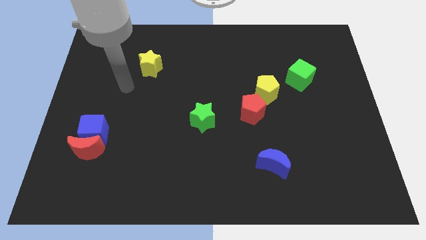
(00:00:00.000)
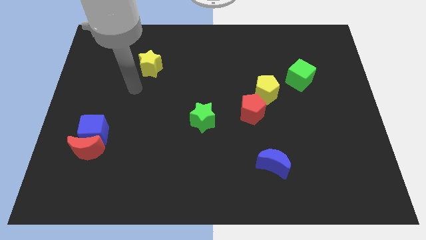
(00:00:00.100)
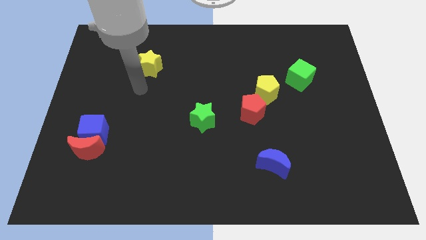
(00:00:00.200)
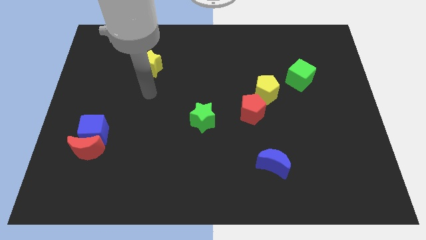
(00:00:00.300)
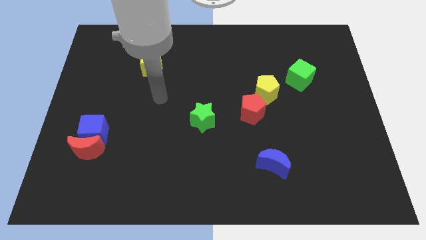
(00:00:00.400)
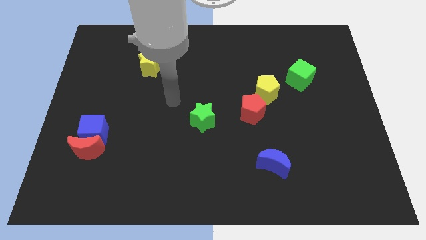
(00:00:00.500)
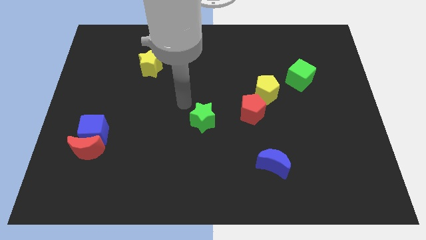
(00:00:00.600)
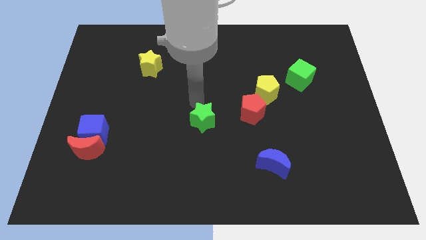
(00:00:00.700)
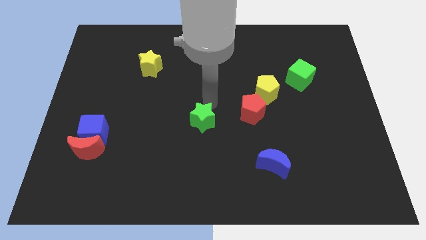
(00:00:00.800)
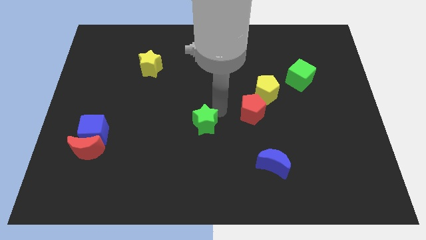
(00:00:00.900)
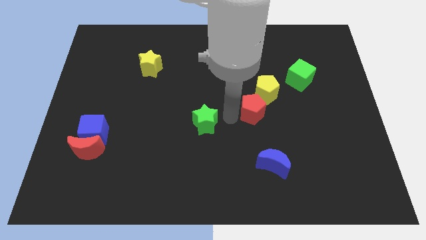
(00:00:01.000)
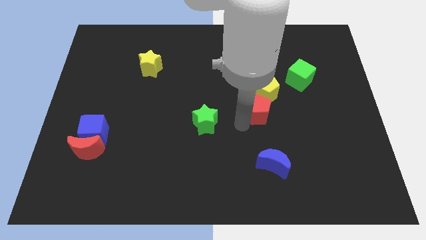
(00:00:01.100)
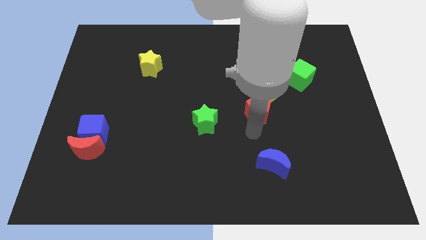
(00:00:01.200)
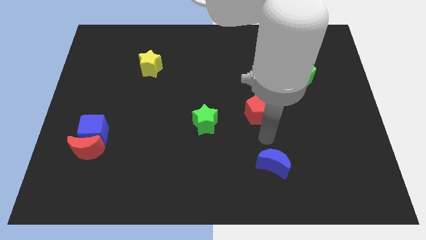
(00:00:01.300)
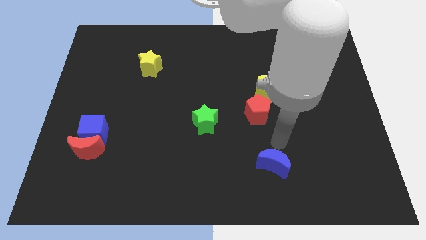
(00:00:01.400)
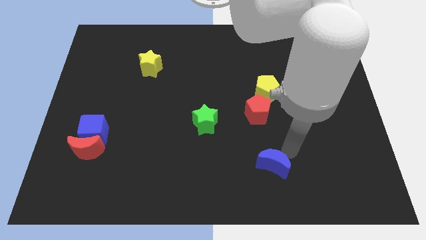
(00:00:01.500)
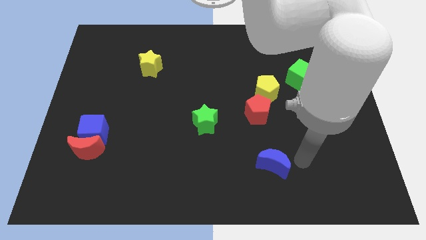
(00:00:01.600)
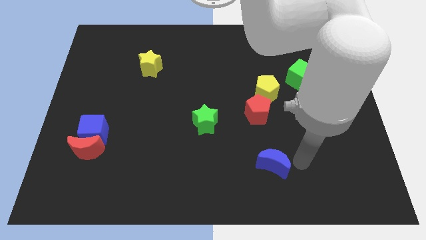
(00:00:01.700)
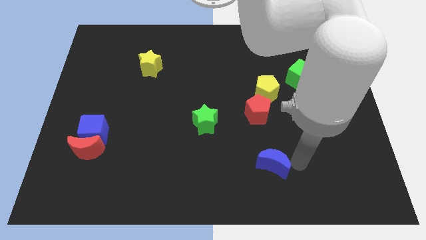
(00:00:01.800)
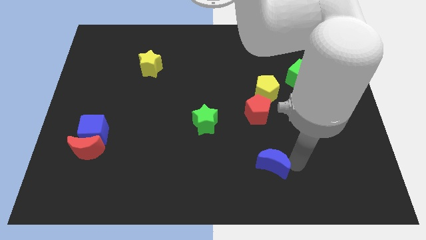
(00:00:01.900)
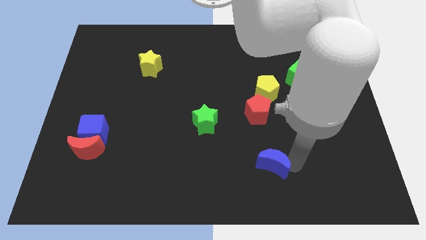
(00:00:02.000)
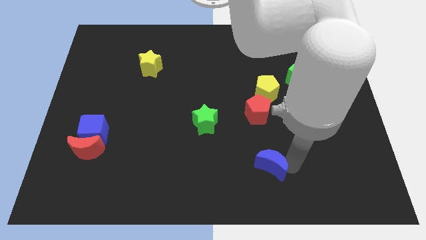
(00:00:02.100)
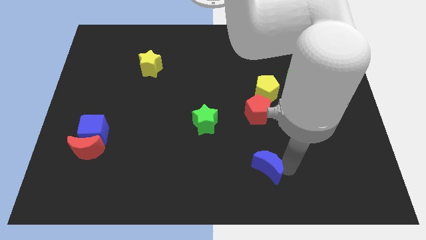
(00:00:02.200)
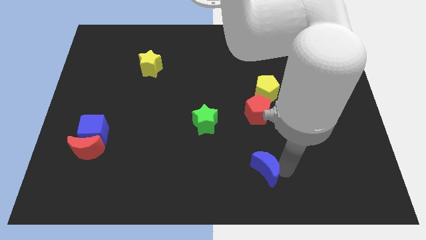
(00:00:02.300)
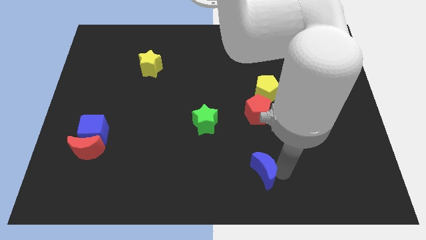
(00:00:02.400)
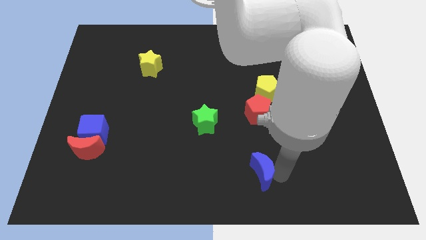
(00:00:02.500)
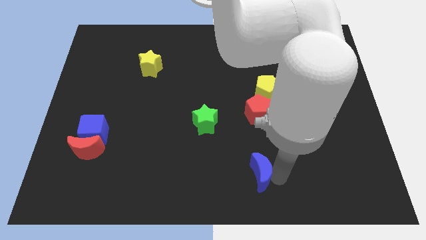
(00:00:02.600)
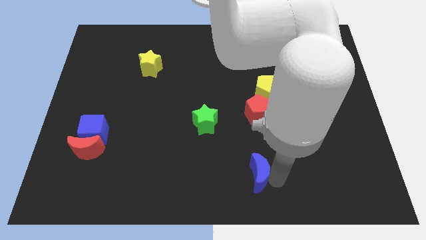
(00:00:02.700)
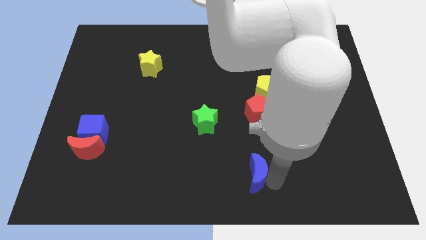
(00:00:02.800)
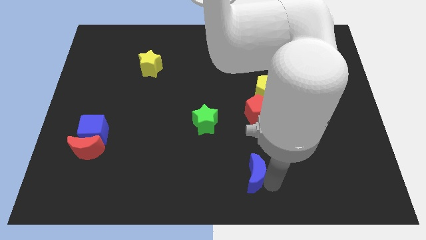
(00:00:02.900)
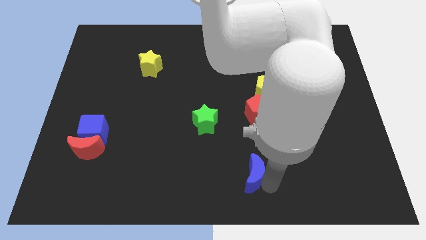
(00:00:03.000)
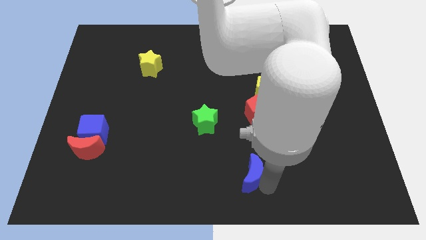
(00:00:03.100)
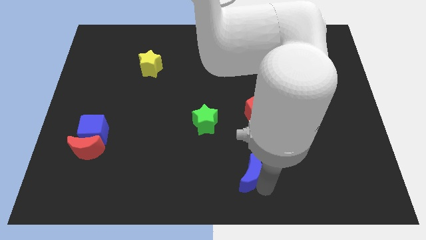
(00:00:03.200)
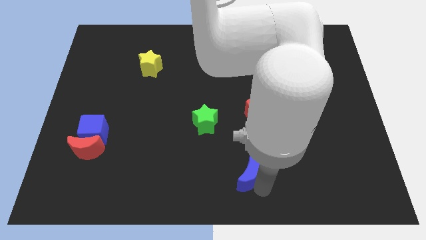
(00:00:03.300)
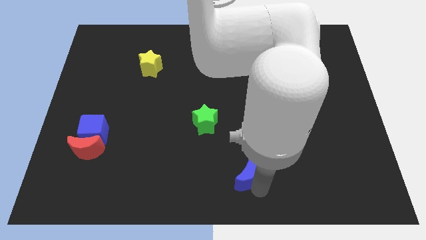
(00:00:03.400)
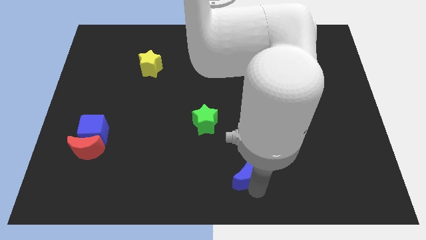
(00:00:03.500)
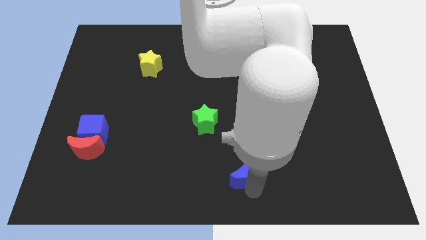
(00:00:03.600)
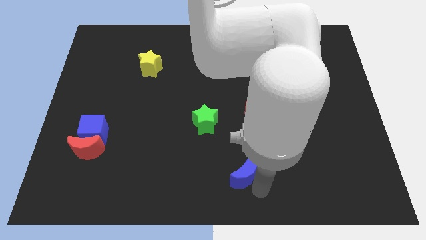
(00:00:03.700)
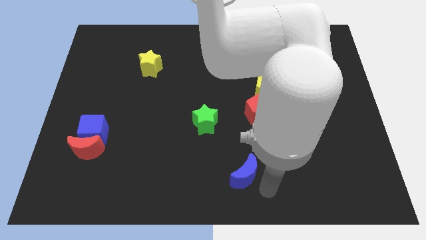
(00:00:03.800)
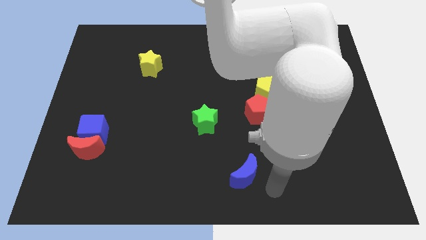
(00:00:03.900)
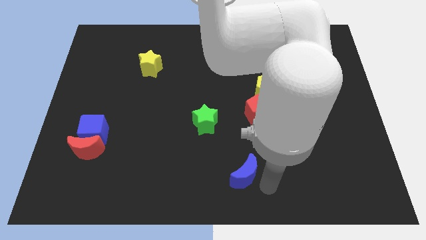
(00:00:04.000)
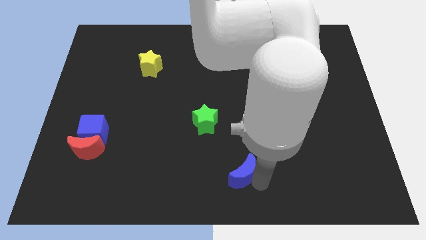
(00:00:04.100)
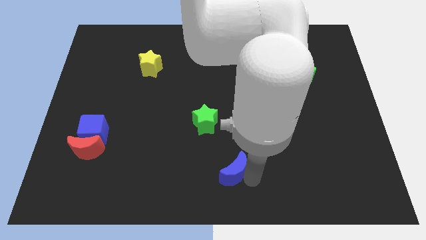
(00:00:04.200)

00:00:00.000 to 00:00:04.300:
slide the blue moon to the left a little bit

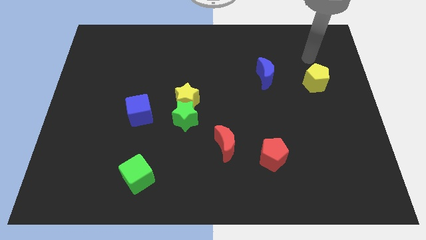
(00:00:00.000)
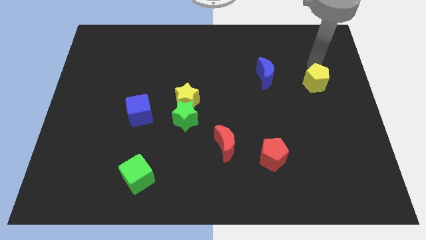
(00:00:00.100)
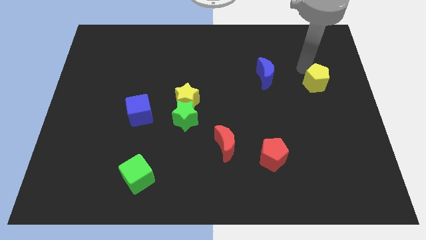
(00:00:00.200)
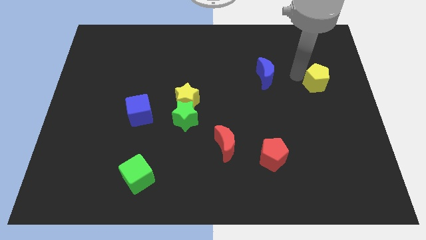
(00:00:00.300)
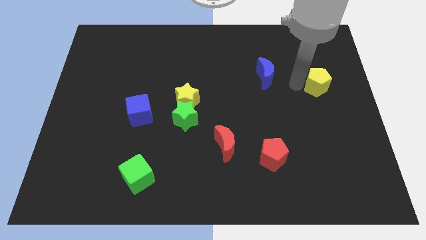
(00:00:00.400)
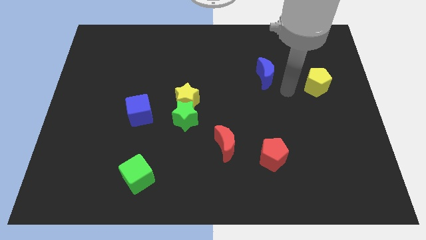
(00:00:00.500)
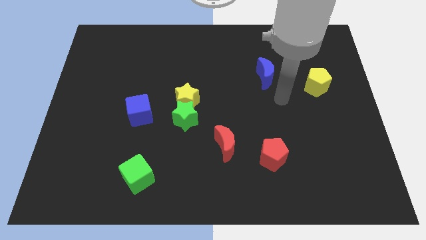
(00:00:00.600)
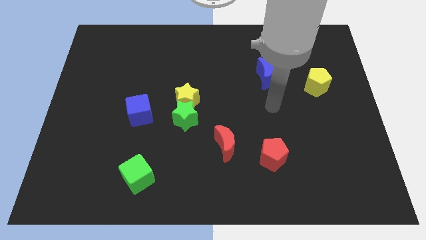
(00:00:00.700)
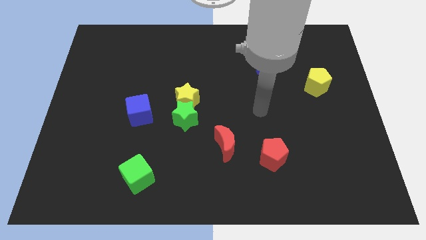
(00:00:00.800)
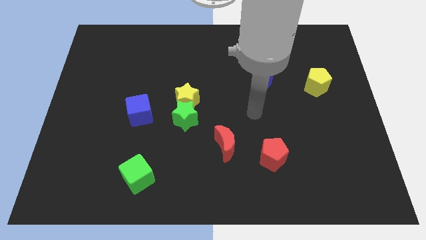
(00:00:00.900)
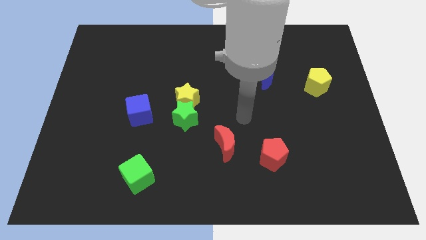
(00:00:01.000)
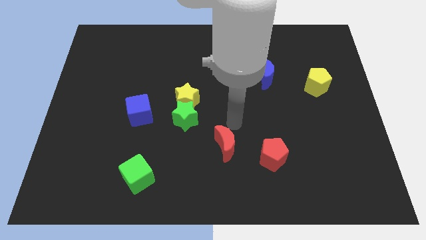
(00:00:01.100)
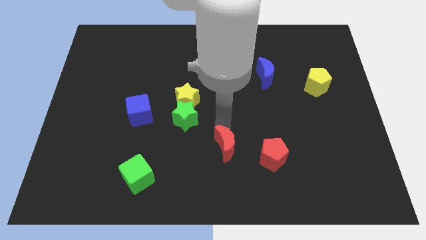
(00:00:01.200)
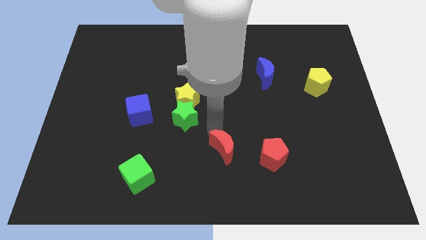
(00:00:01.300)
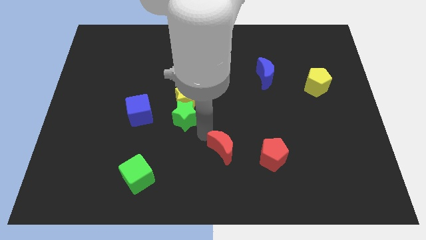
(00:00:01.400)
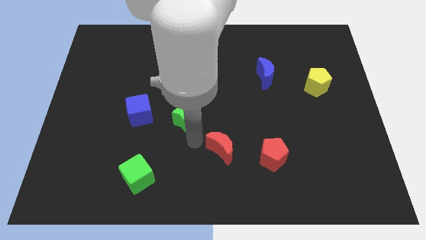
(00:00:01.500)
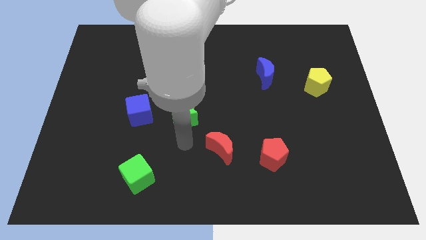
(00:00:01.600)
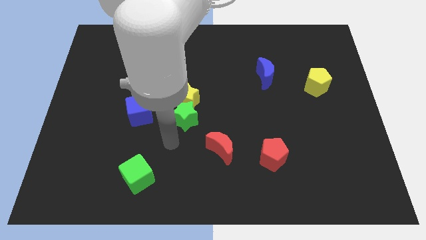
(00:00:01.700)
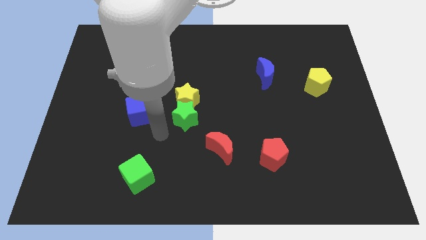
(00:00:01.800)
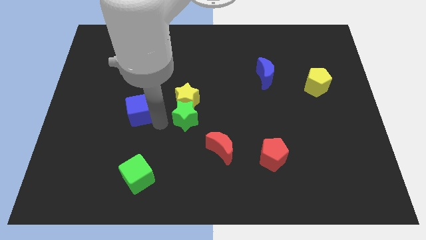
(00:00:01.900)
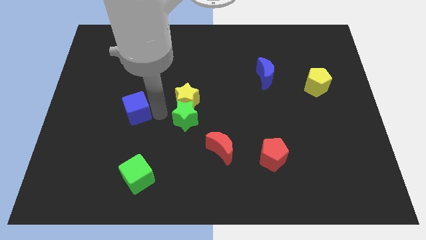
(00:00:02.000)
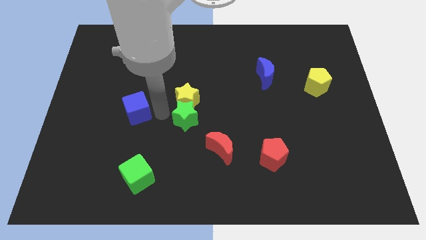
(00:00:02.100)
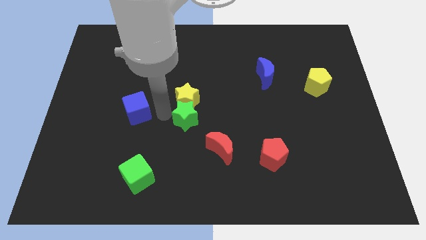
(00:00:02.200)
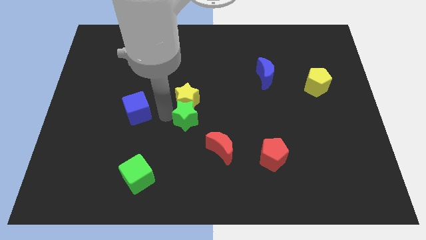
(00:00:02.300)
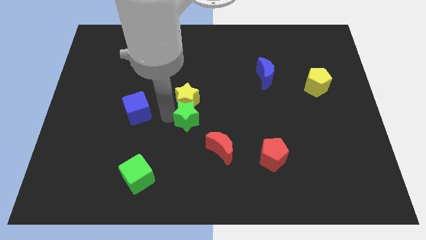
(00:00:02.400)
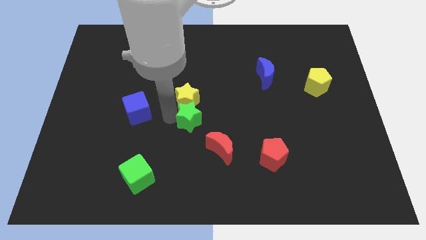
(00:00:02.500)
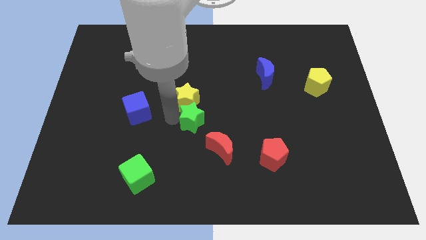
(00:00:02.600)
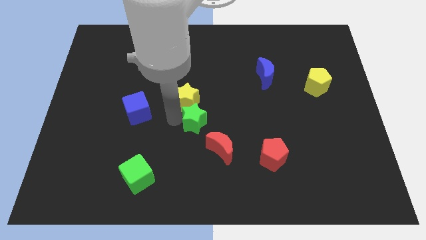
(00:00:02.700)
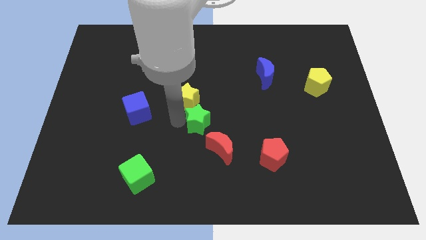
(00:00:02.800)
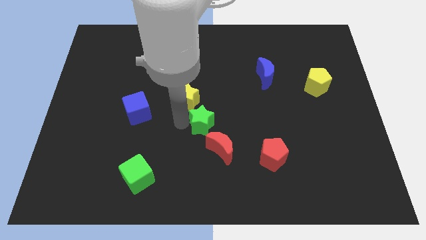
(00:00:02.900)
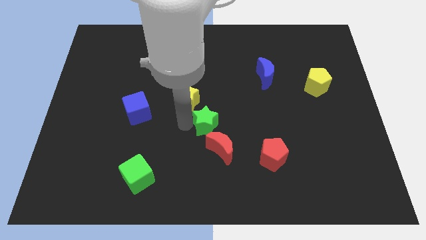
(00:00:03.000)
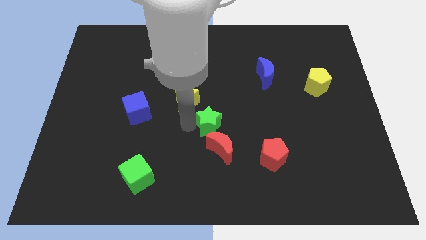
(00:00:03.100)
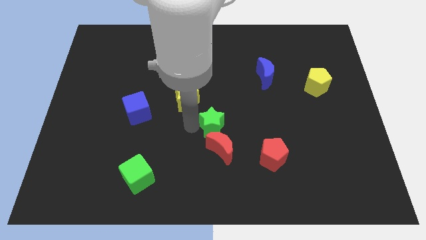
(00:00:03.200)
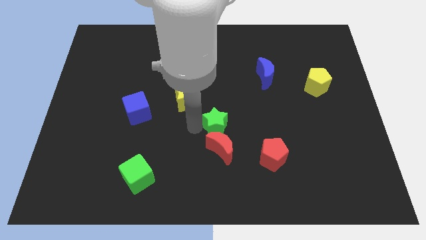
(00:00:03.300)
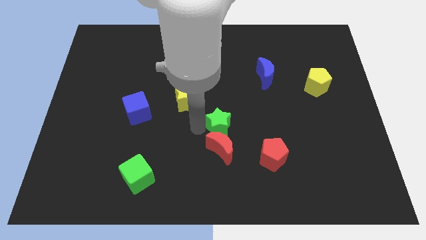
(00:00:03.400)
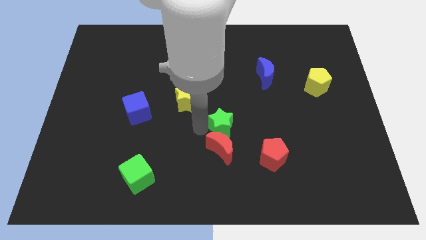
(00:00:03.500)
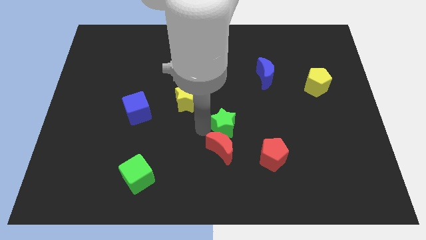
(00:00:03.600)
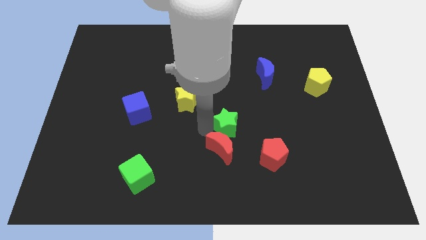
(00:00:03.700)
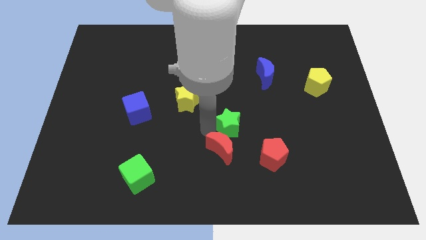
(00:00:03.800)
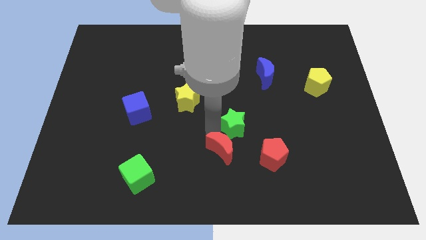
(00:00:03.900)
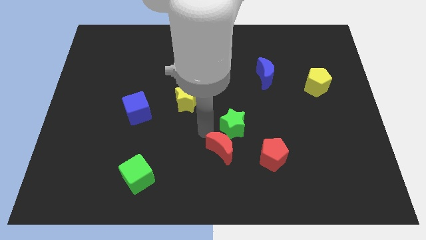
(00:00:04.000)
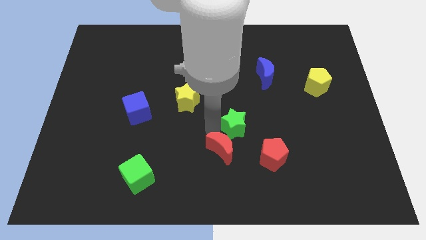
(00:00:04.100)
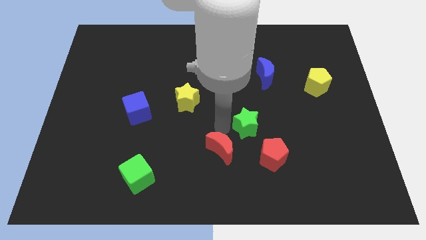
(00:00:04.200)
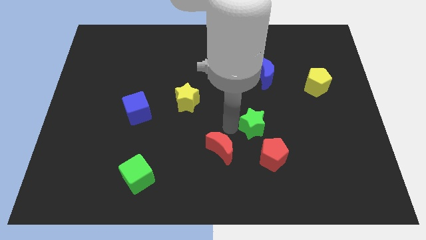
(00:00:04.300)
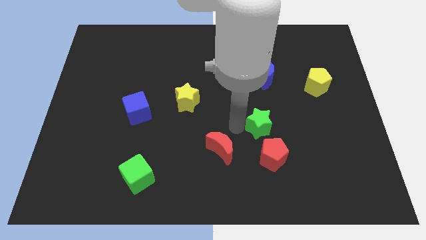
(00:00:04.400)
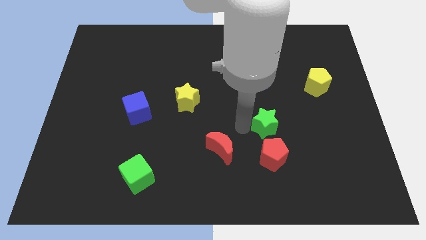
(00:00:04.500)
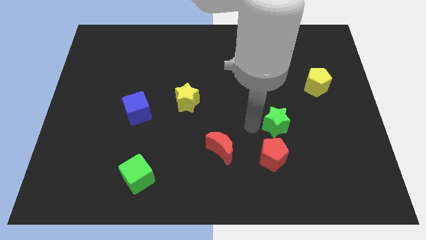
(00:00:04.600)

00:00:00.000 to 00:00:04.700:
push the green star to the right
